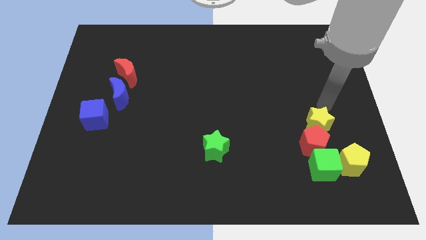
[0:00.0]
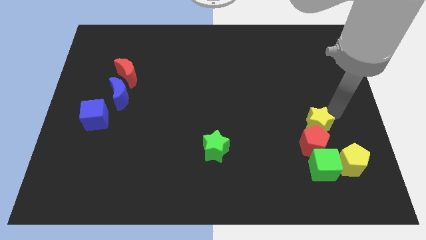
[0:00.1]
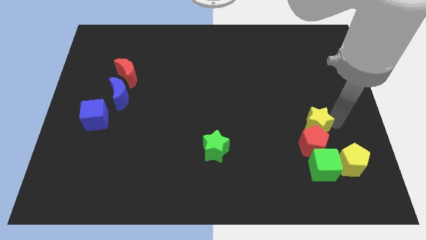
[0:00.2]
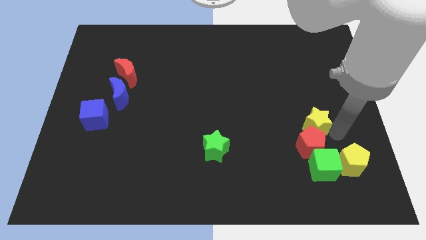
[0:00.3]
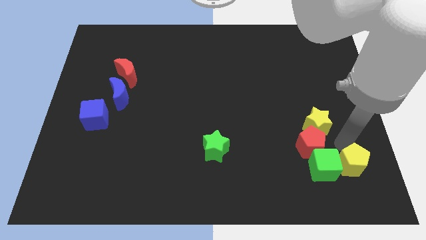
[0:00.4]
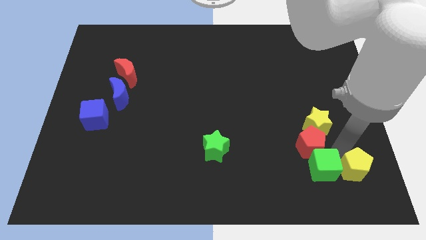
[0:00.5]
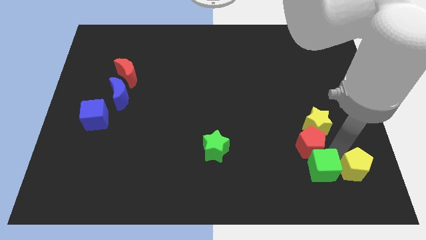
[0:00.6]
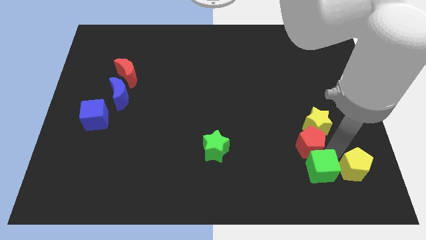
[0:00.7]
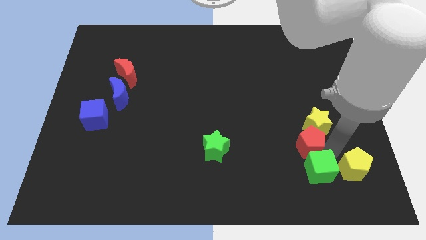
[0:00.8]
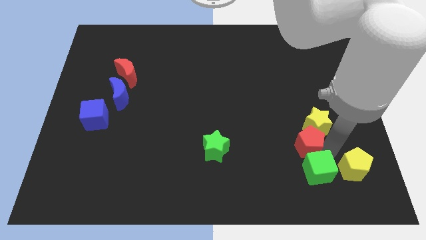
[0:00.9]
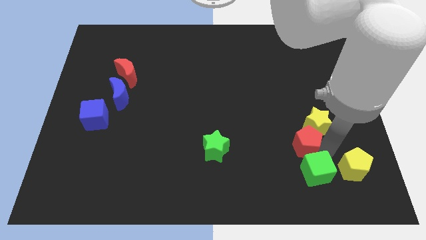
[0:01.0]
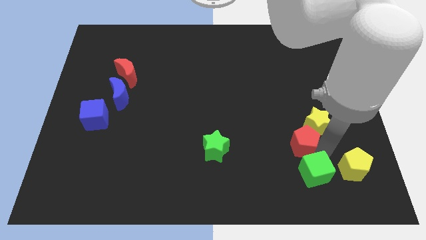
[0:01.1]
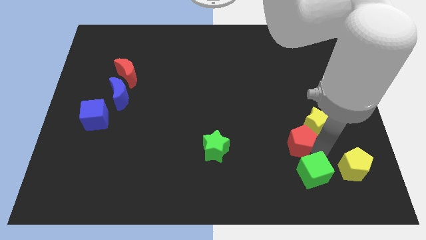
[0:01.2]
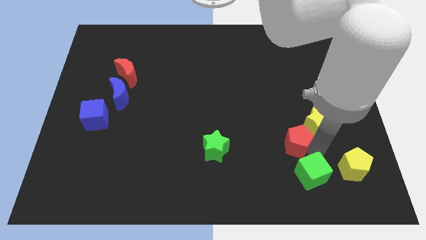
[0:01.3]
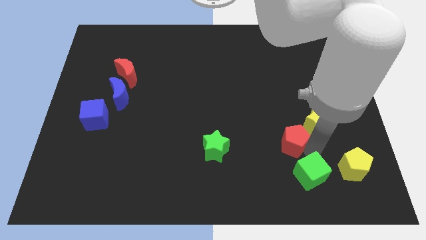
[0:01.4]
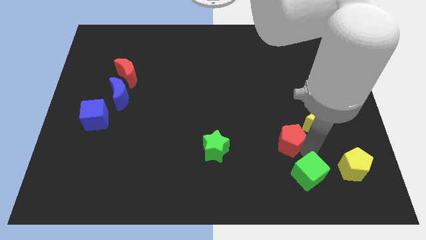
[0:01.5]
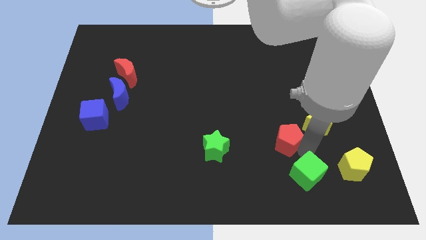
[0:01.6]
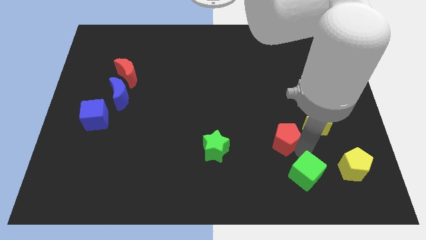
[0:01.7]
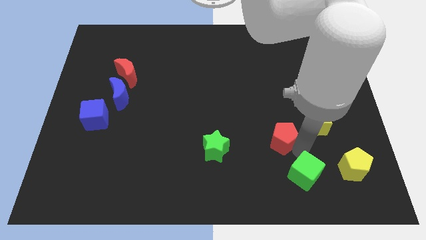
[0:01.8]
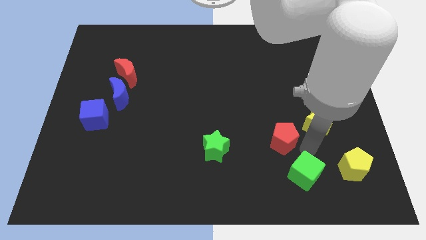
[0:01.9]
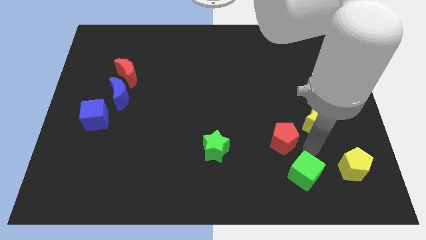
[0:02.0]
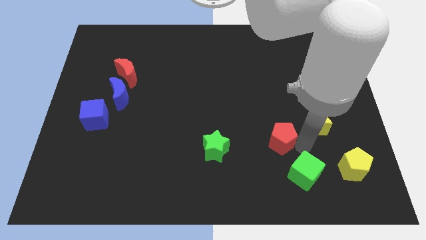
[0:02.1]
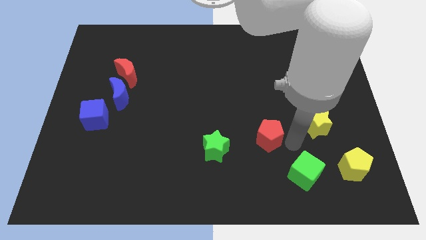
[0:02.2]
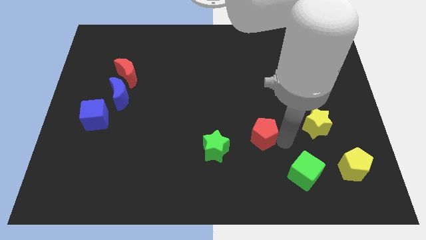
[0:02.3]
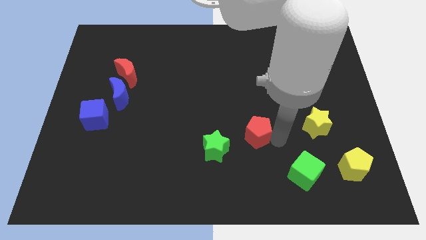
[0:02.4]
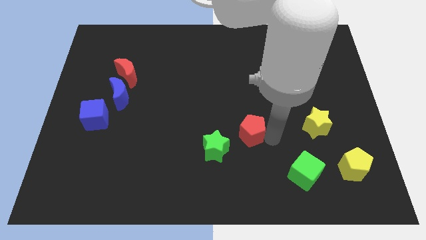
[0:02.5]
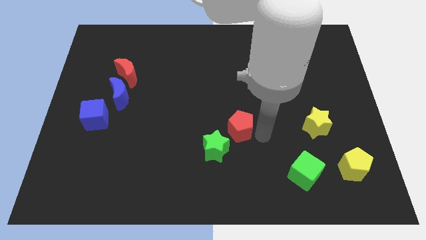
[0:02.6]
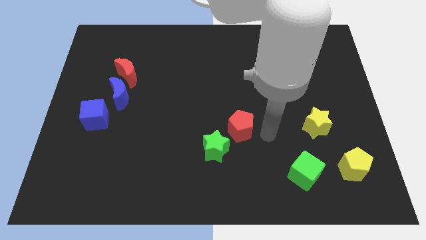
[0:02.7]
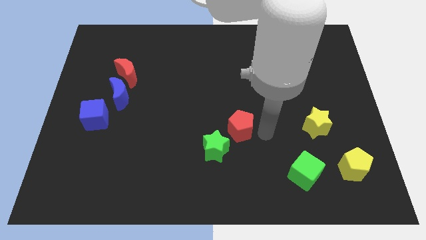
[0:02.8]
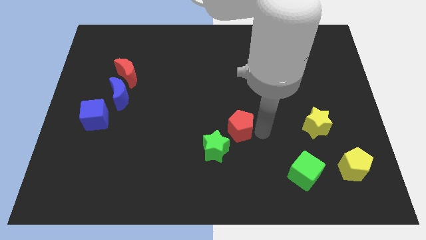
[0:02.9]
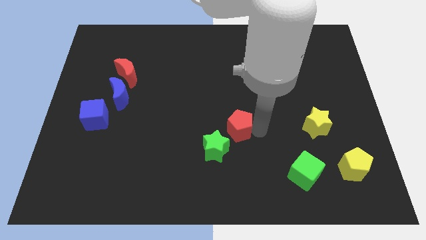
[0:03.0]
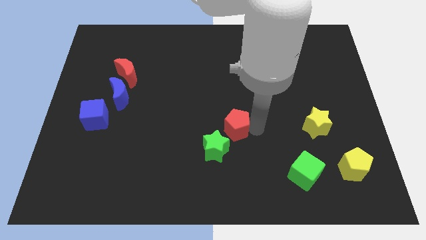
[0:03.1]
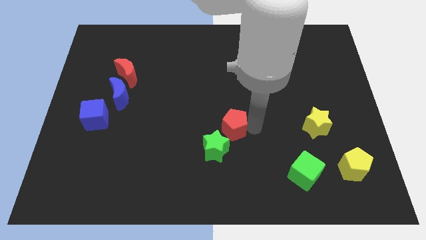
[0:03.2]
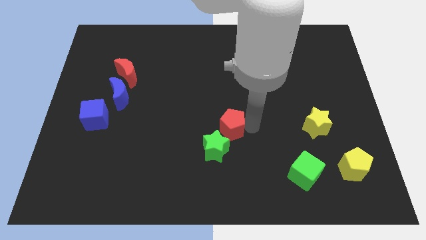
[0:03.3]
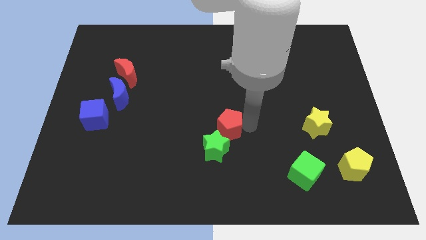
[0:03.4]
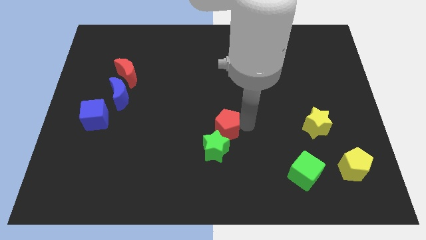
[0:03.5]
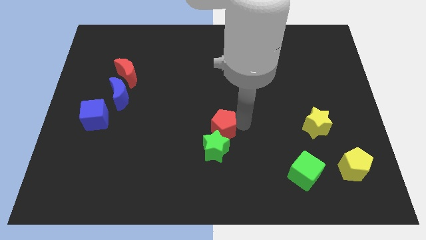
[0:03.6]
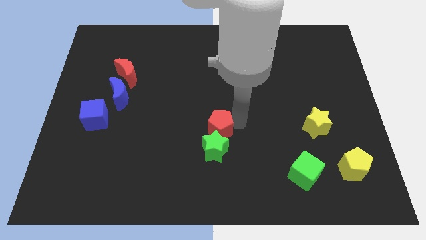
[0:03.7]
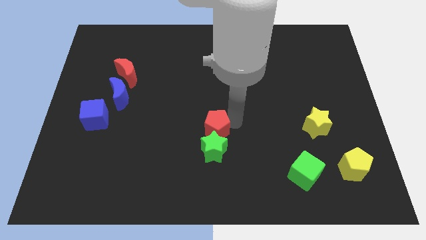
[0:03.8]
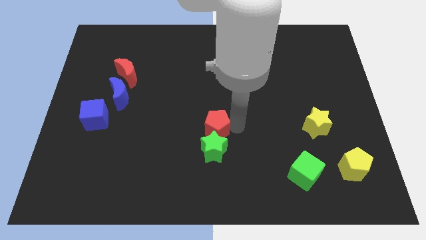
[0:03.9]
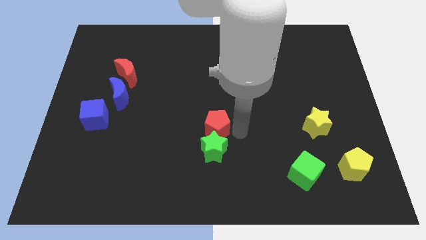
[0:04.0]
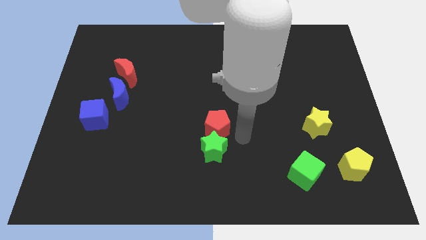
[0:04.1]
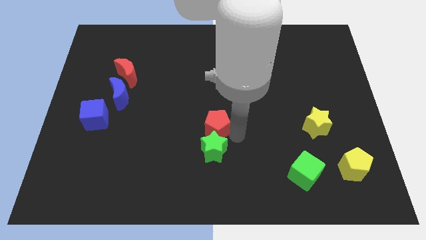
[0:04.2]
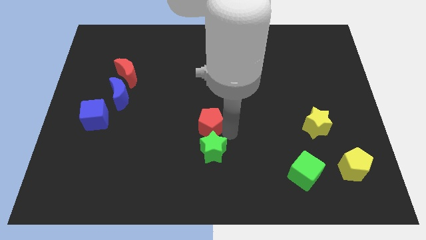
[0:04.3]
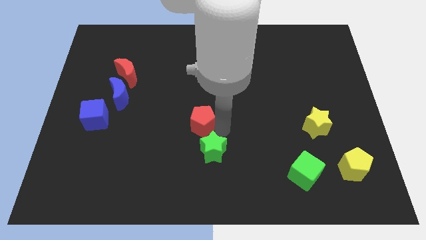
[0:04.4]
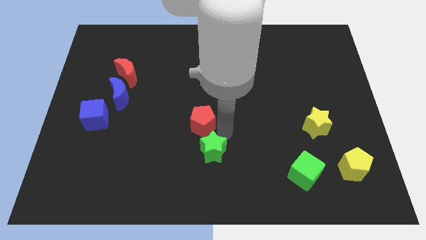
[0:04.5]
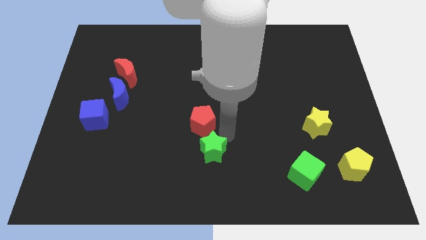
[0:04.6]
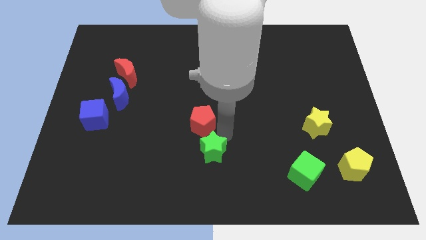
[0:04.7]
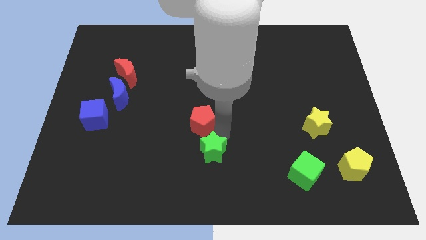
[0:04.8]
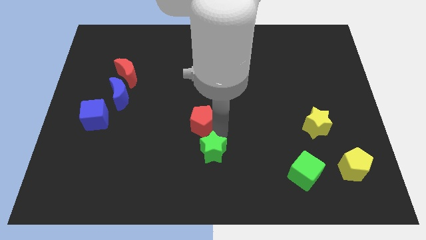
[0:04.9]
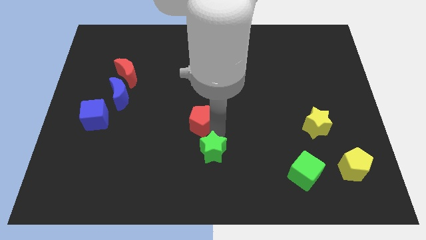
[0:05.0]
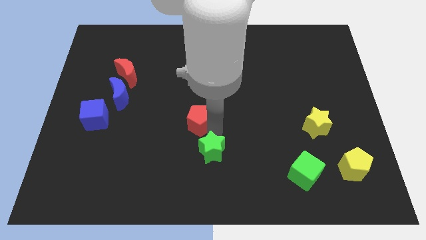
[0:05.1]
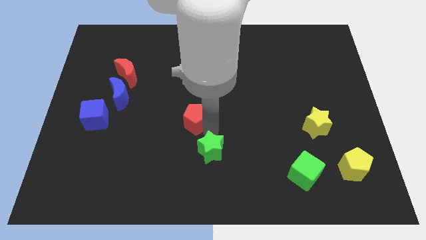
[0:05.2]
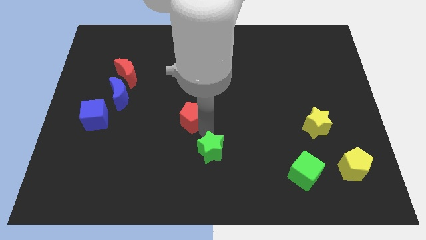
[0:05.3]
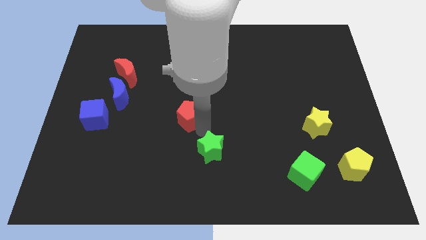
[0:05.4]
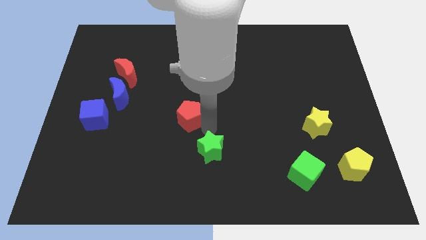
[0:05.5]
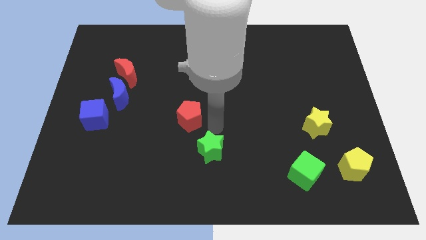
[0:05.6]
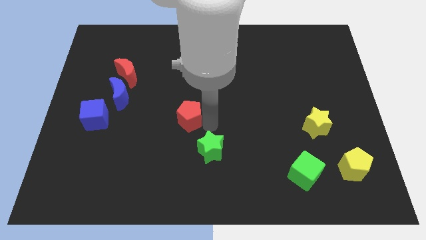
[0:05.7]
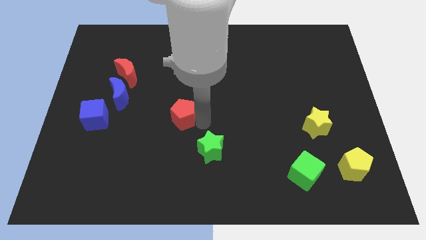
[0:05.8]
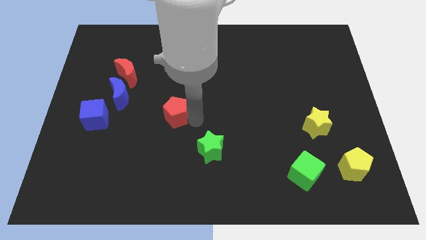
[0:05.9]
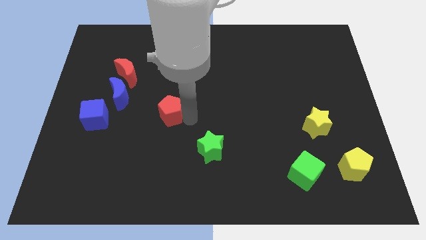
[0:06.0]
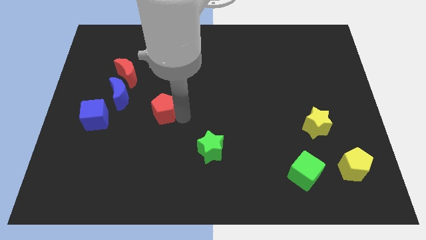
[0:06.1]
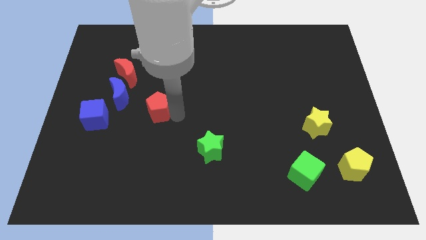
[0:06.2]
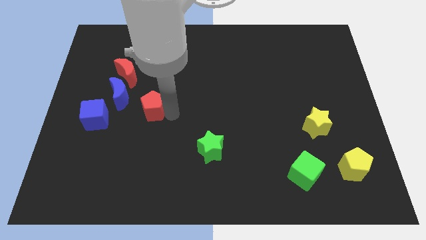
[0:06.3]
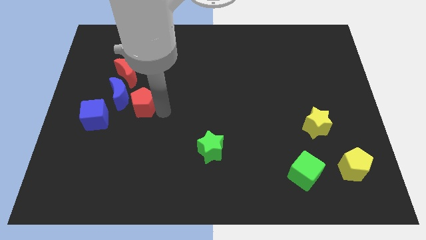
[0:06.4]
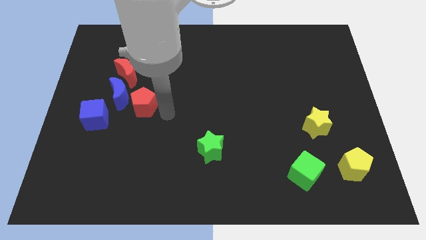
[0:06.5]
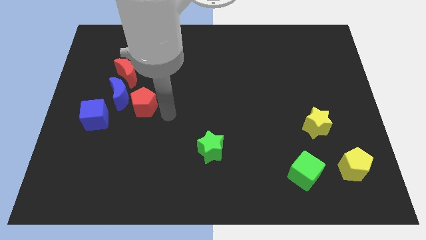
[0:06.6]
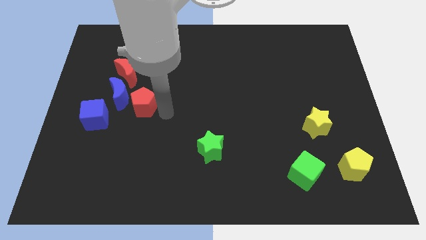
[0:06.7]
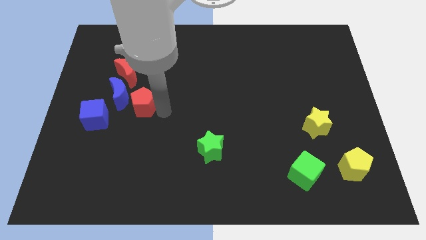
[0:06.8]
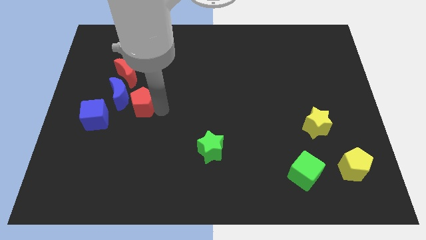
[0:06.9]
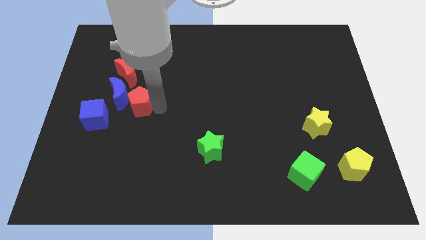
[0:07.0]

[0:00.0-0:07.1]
put the red pentagon to the blue moon
